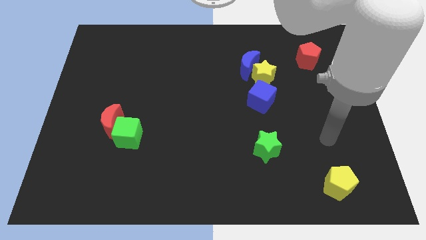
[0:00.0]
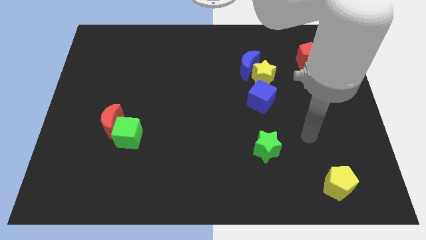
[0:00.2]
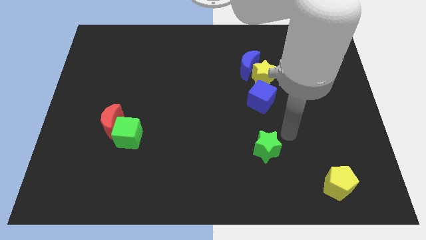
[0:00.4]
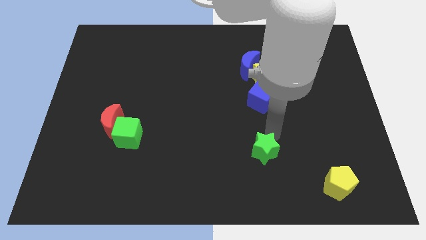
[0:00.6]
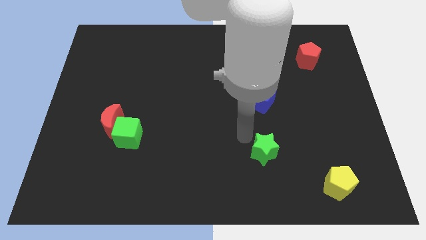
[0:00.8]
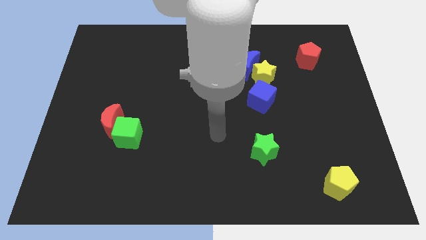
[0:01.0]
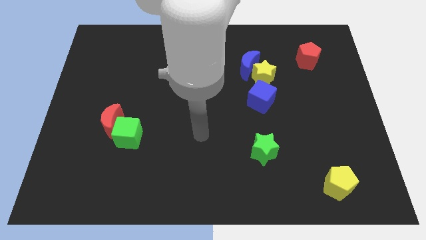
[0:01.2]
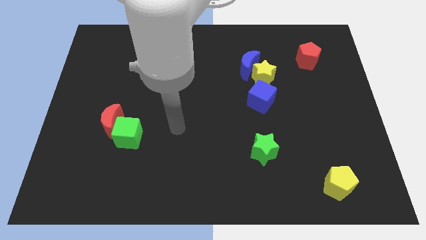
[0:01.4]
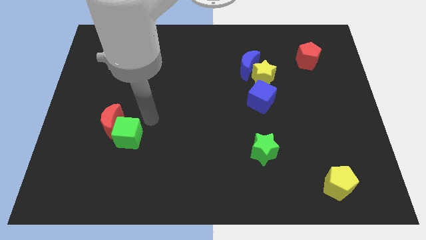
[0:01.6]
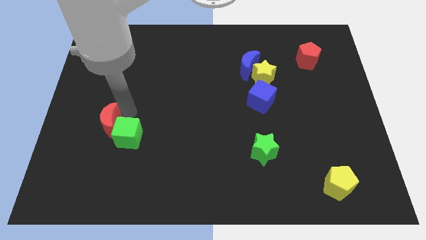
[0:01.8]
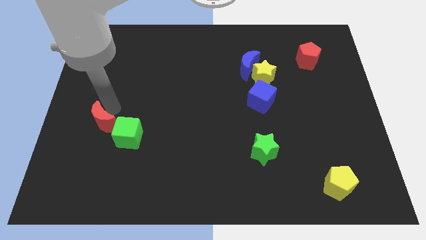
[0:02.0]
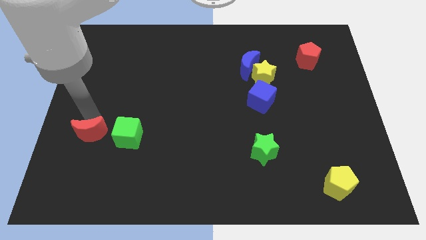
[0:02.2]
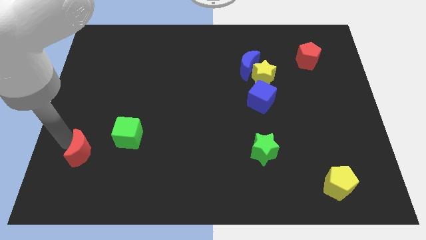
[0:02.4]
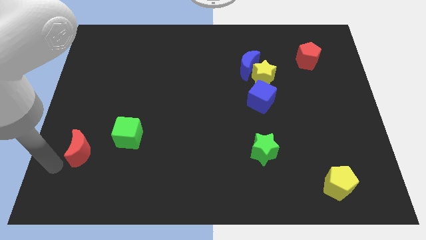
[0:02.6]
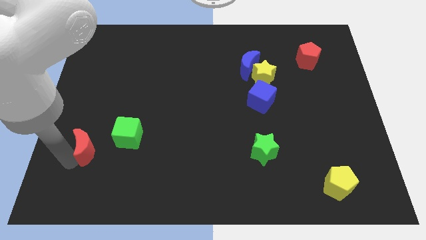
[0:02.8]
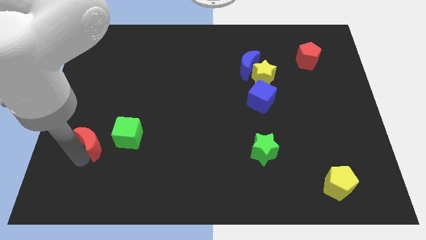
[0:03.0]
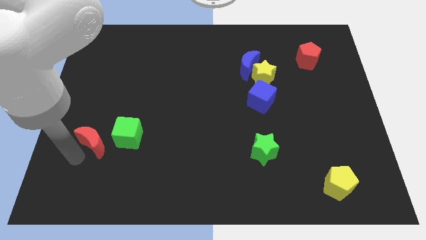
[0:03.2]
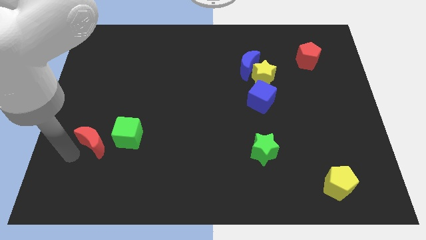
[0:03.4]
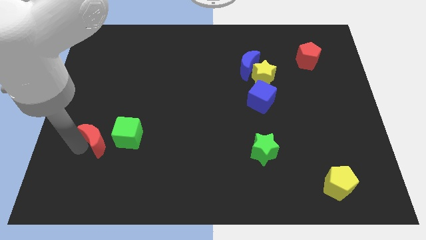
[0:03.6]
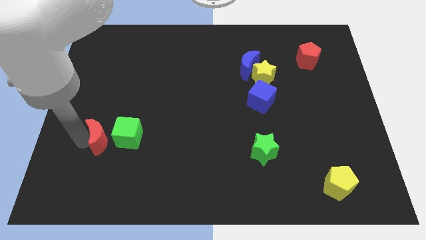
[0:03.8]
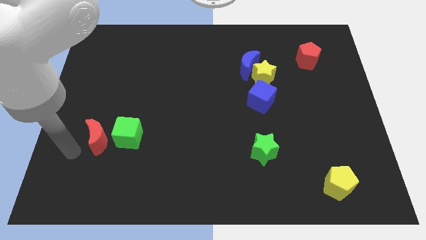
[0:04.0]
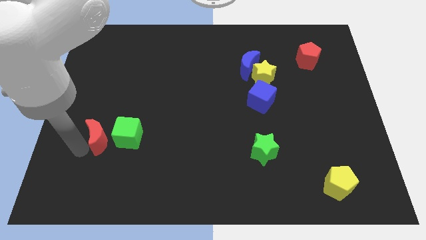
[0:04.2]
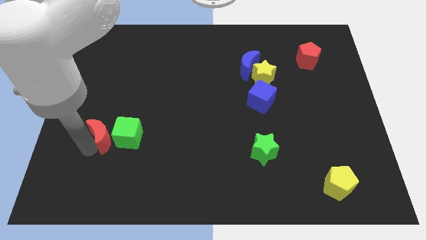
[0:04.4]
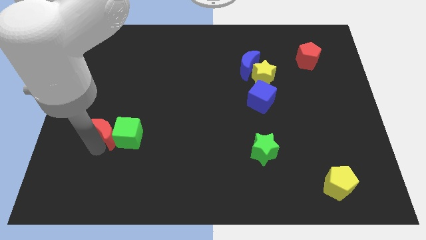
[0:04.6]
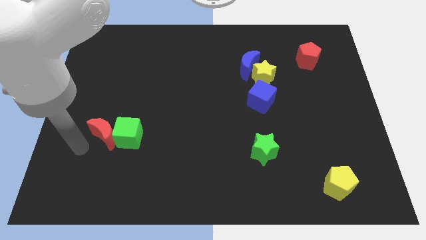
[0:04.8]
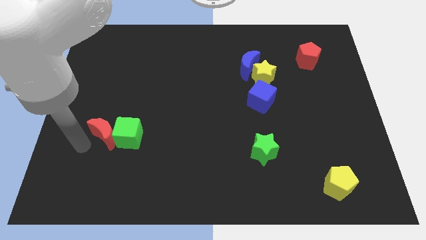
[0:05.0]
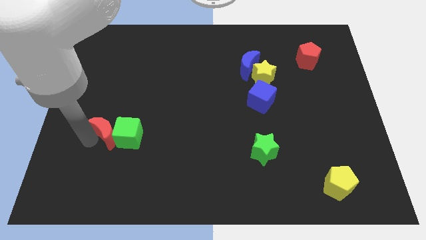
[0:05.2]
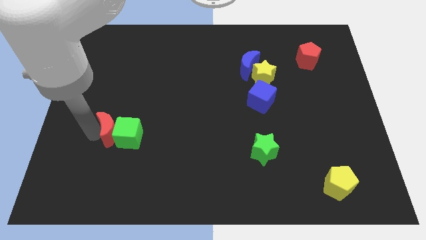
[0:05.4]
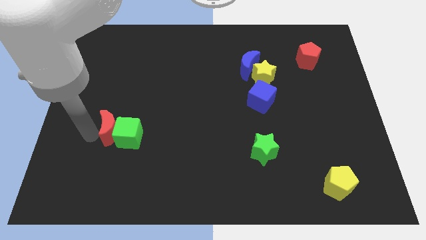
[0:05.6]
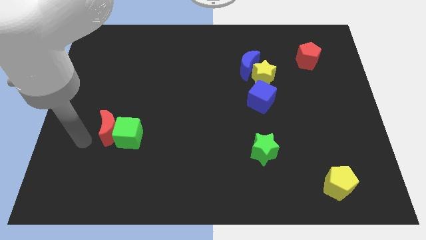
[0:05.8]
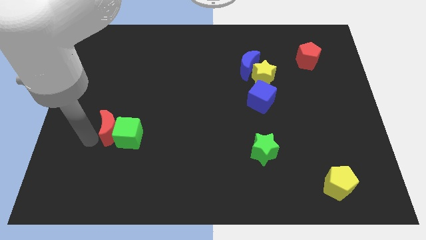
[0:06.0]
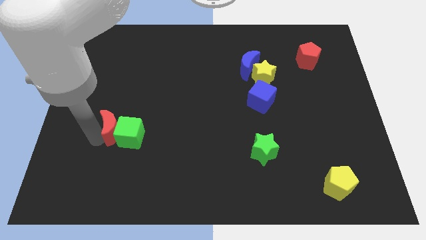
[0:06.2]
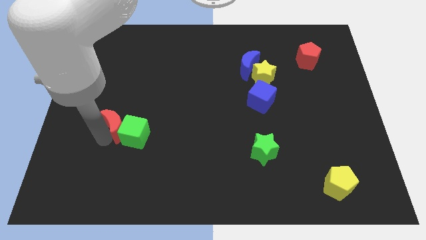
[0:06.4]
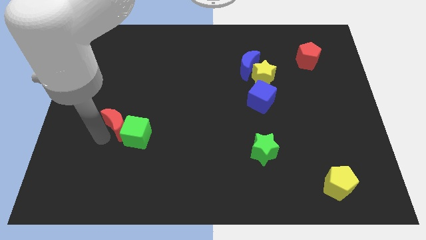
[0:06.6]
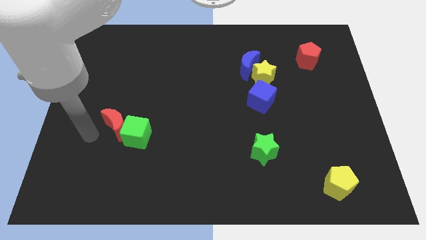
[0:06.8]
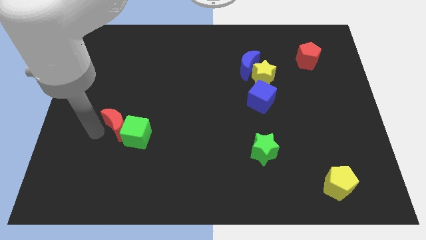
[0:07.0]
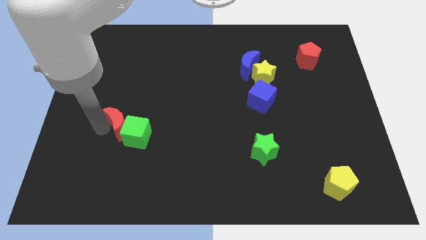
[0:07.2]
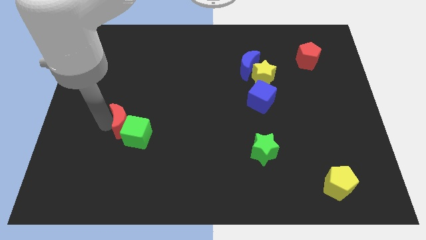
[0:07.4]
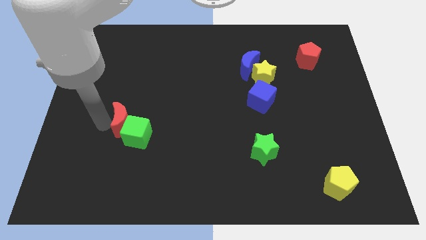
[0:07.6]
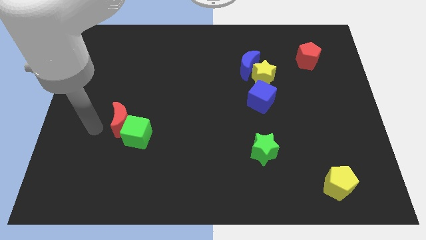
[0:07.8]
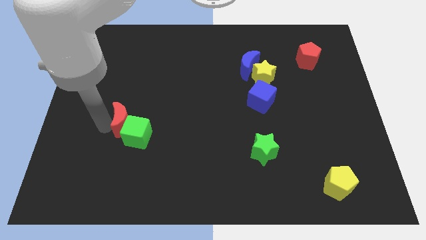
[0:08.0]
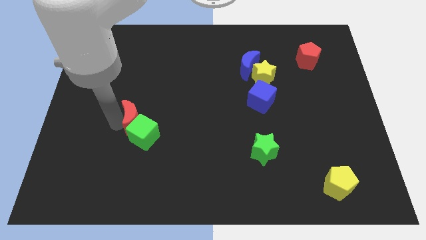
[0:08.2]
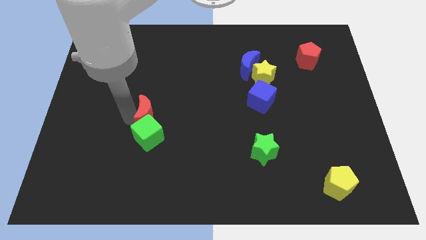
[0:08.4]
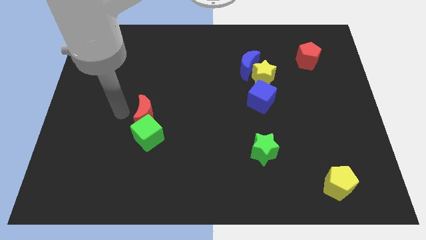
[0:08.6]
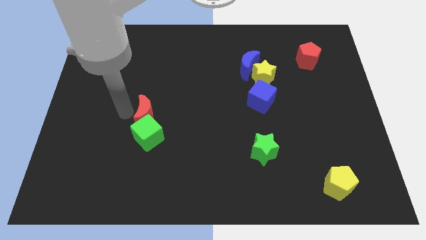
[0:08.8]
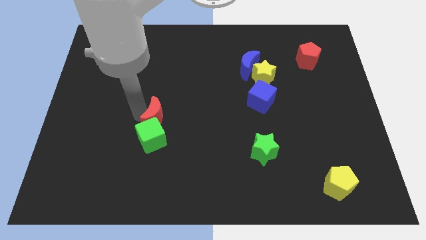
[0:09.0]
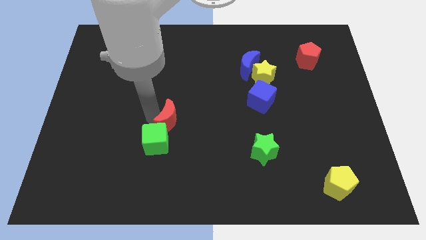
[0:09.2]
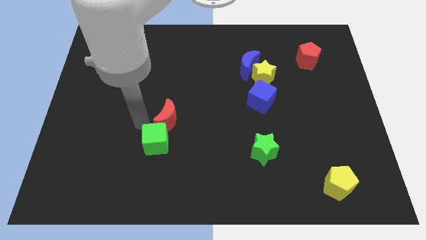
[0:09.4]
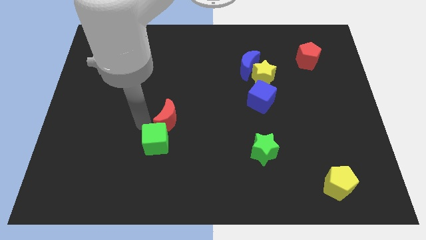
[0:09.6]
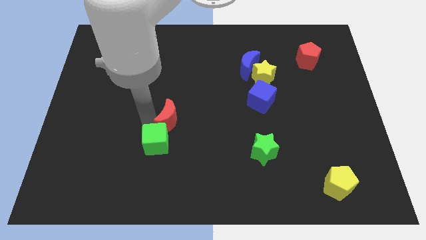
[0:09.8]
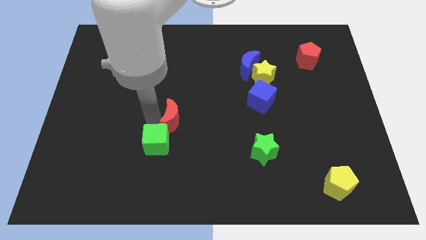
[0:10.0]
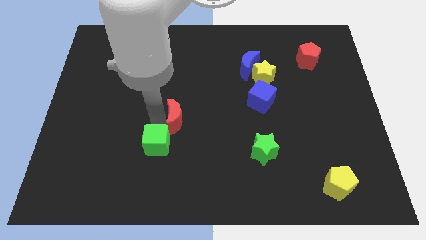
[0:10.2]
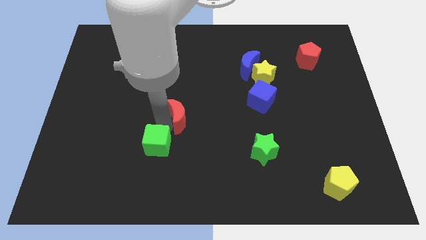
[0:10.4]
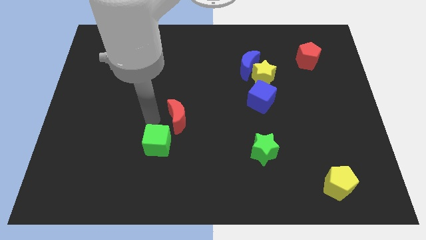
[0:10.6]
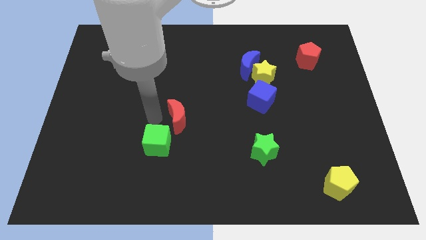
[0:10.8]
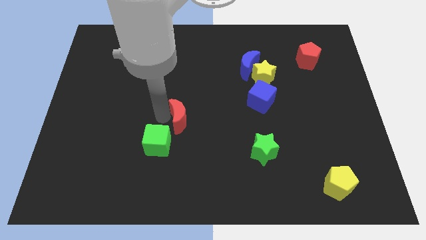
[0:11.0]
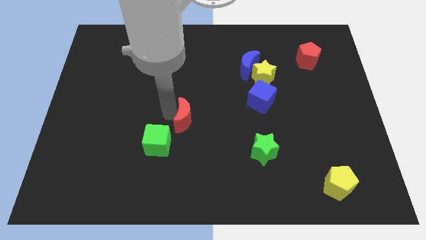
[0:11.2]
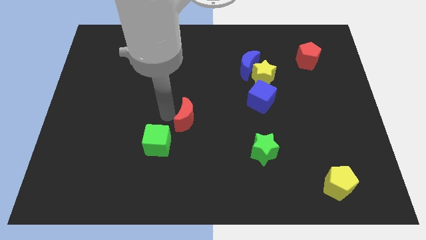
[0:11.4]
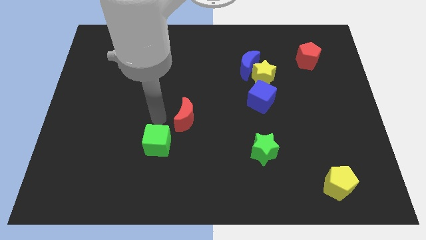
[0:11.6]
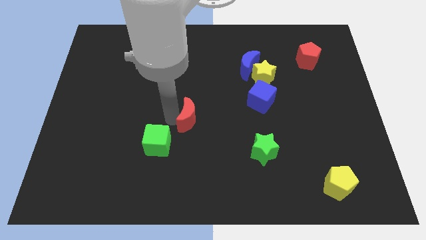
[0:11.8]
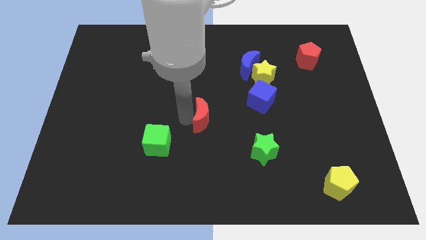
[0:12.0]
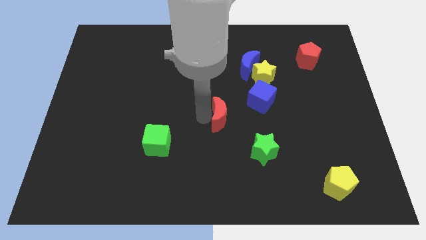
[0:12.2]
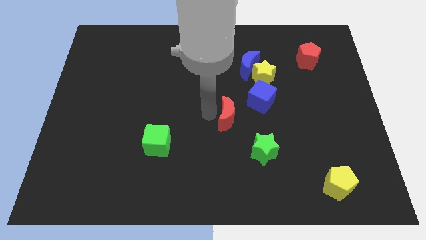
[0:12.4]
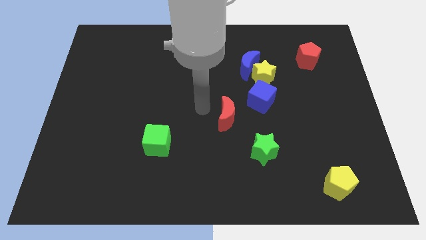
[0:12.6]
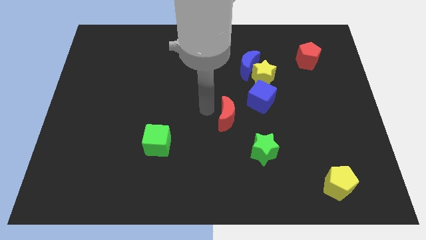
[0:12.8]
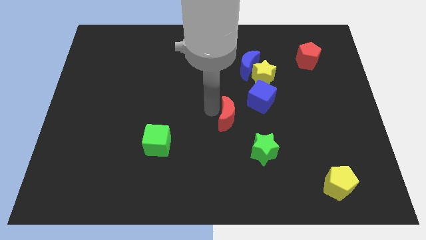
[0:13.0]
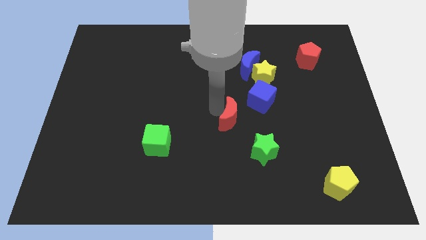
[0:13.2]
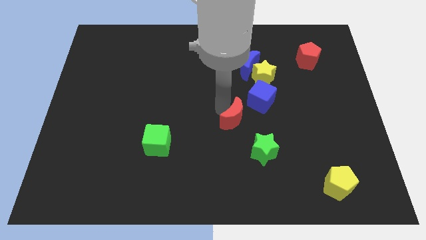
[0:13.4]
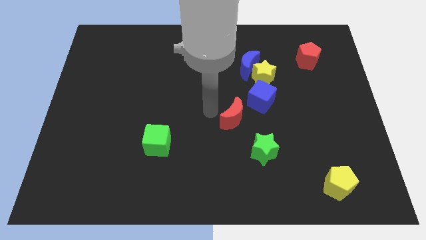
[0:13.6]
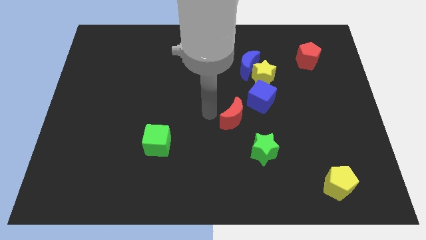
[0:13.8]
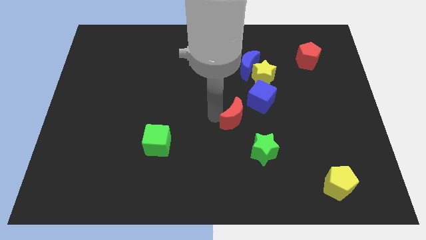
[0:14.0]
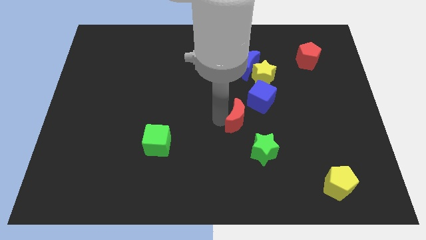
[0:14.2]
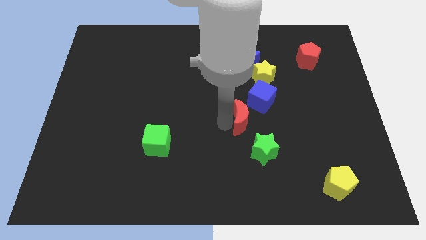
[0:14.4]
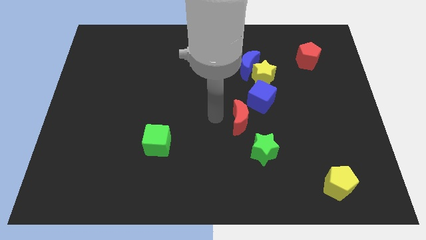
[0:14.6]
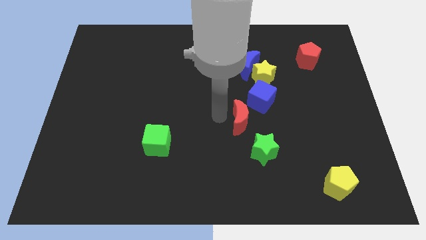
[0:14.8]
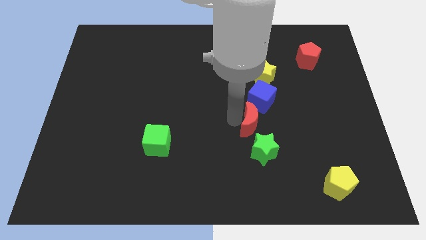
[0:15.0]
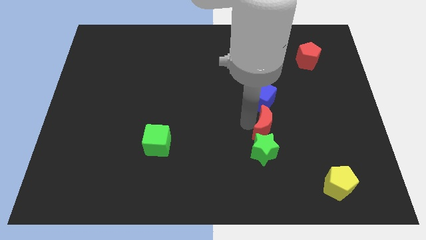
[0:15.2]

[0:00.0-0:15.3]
put the red moon diagonally up and to the right of the green star
